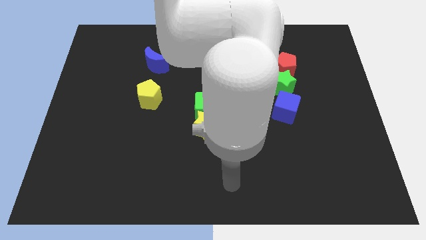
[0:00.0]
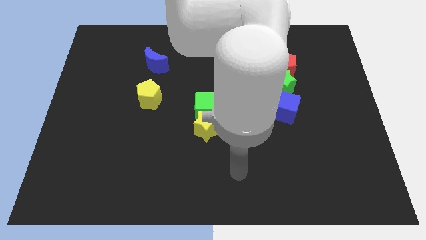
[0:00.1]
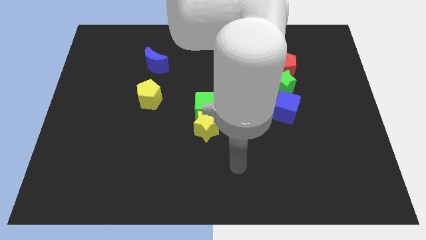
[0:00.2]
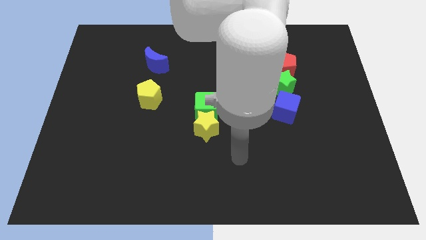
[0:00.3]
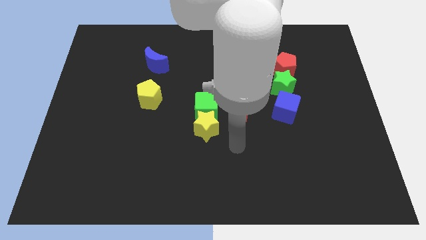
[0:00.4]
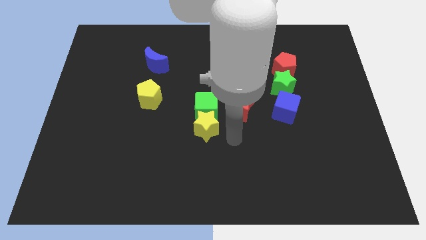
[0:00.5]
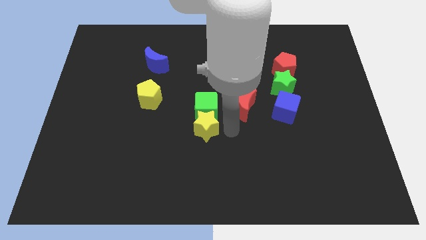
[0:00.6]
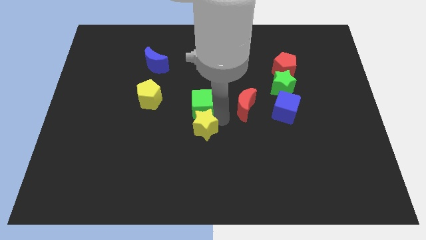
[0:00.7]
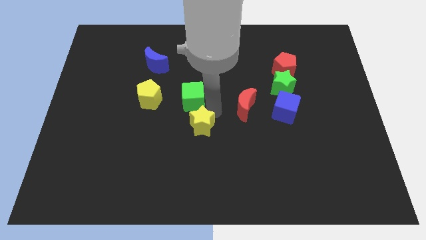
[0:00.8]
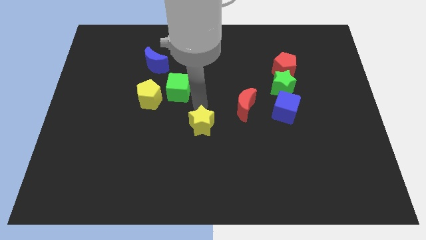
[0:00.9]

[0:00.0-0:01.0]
pull the yellow star apart from the green cube

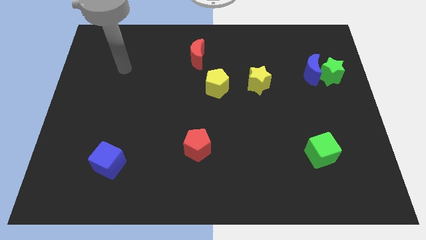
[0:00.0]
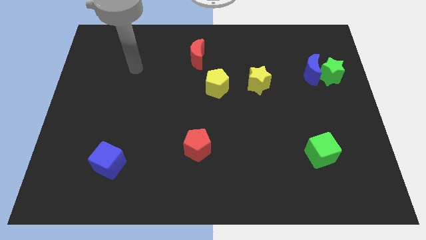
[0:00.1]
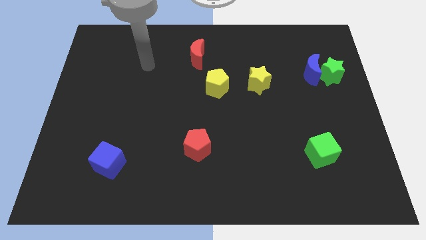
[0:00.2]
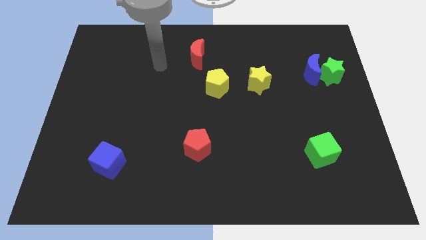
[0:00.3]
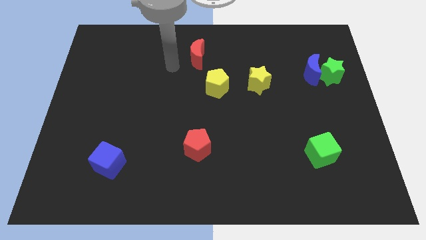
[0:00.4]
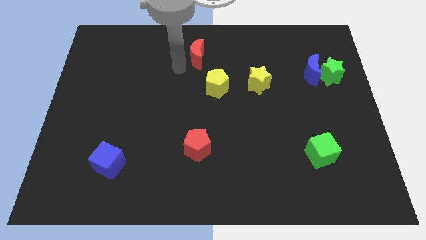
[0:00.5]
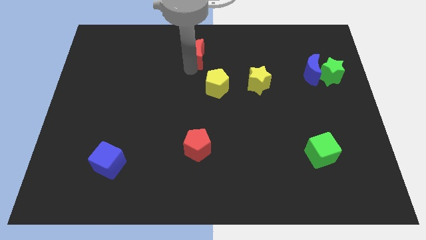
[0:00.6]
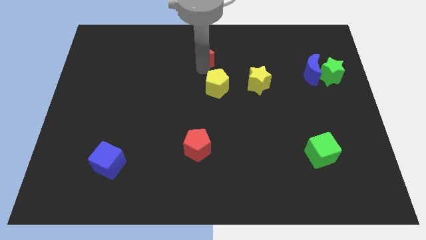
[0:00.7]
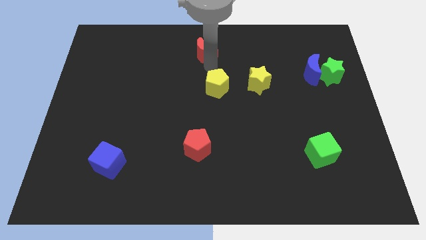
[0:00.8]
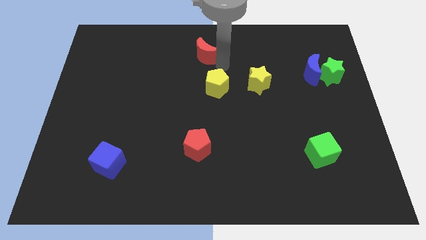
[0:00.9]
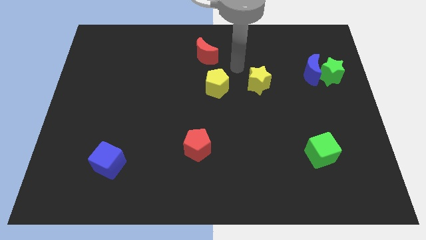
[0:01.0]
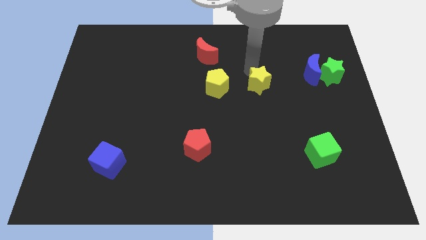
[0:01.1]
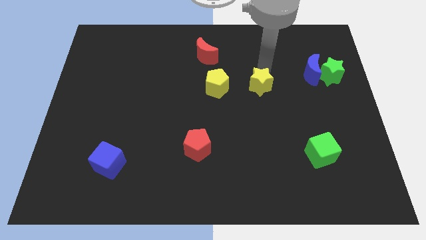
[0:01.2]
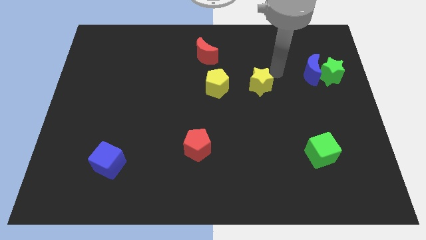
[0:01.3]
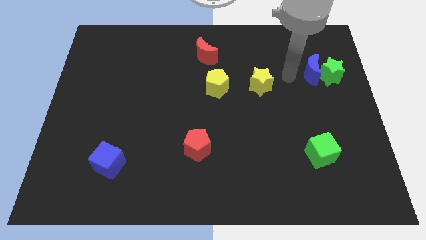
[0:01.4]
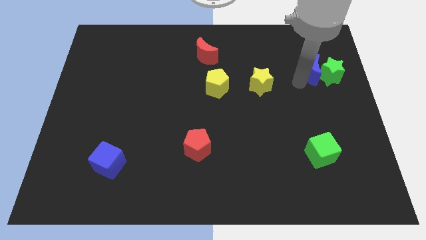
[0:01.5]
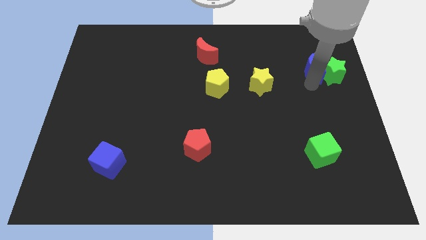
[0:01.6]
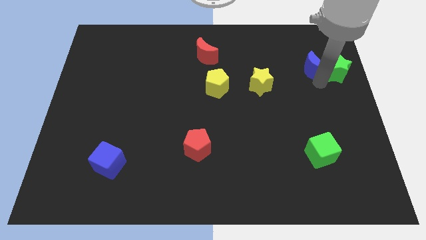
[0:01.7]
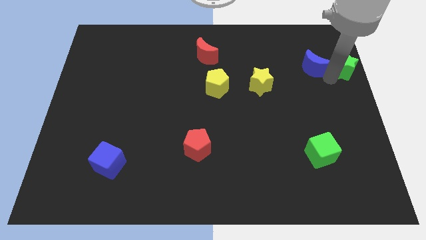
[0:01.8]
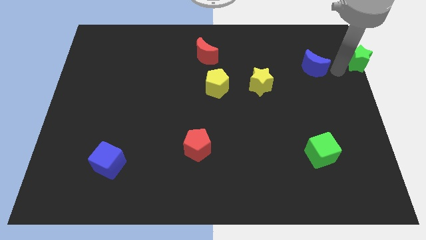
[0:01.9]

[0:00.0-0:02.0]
move the blue moon away from the green star

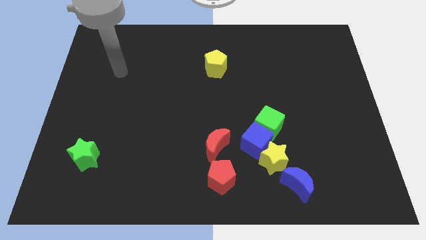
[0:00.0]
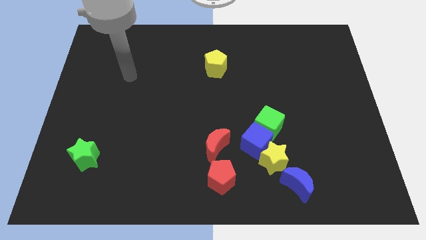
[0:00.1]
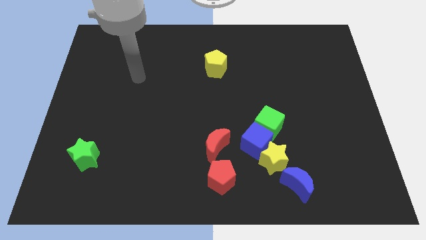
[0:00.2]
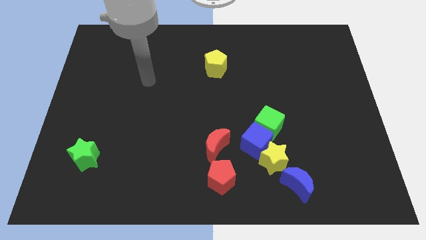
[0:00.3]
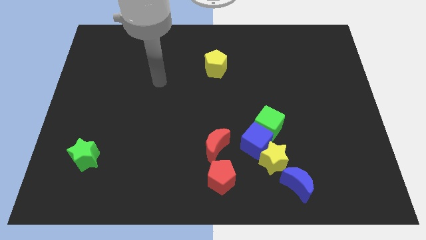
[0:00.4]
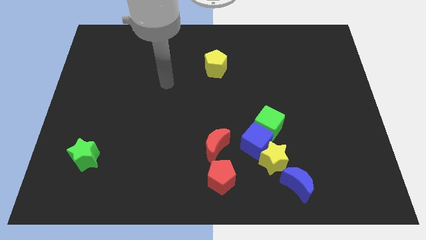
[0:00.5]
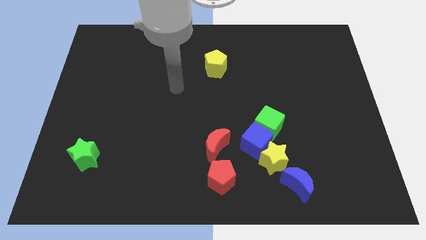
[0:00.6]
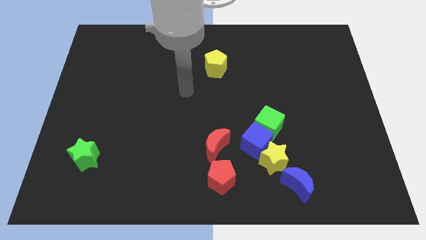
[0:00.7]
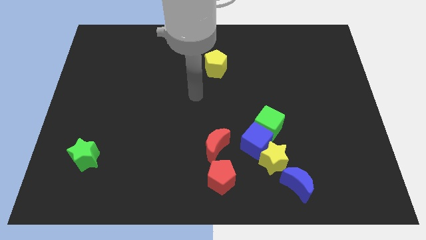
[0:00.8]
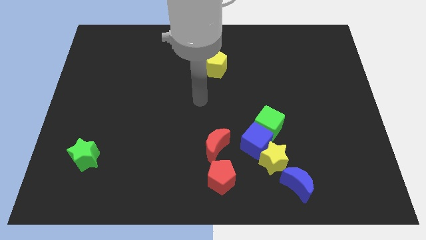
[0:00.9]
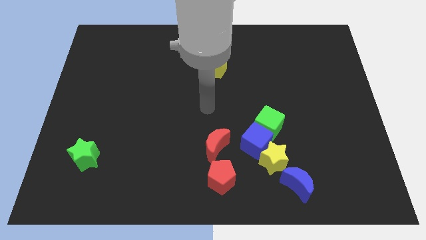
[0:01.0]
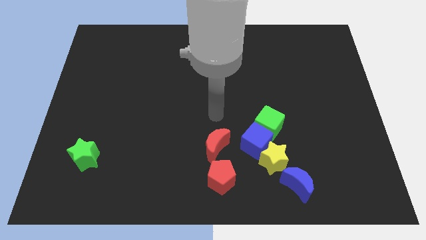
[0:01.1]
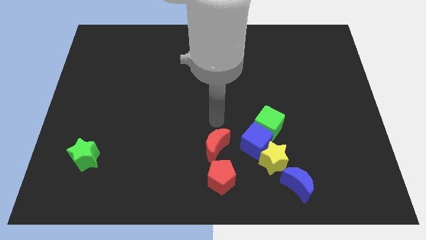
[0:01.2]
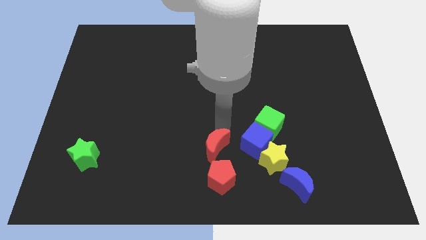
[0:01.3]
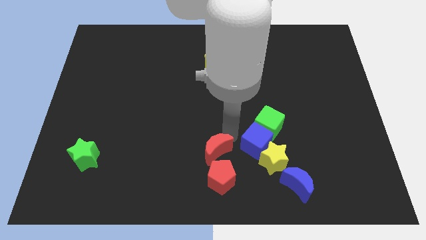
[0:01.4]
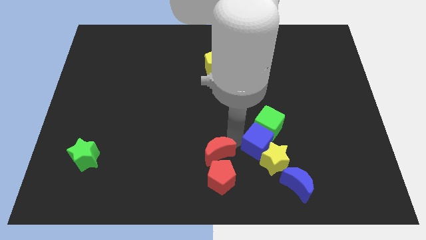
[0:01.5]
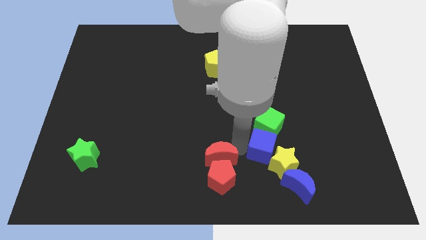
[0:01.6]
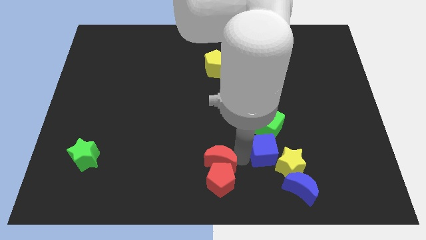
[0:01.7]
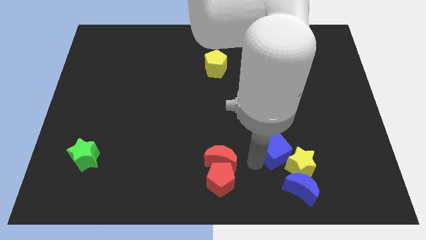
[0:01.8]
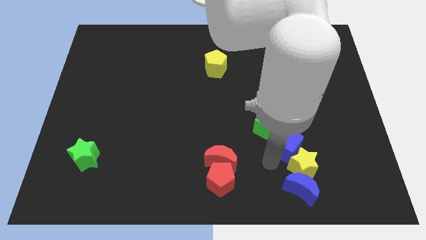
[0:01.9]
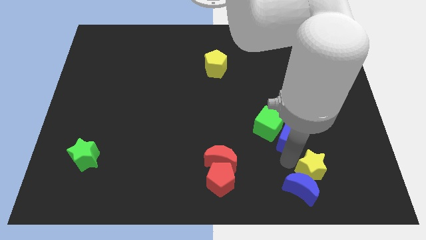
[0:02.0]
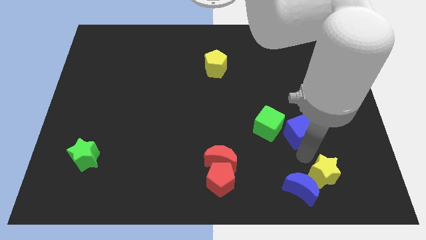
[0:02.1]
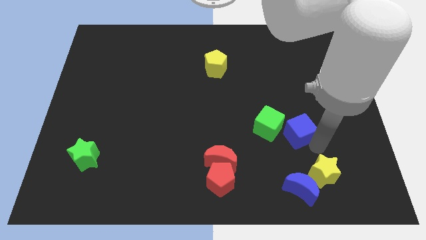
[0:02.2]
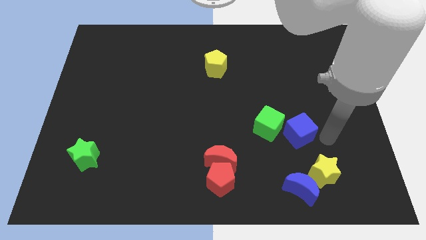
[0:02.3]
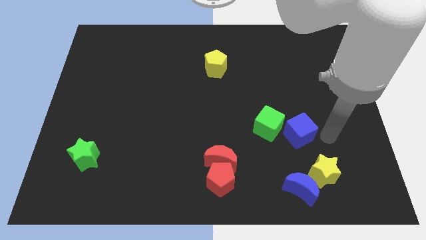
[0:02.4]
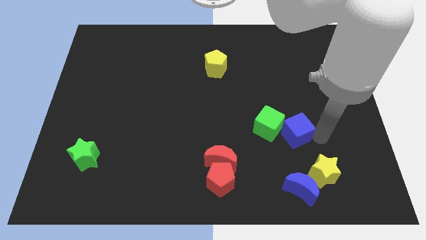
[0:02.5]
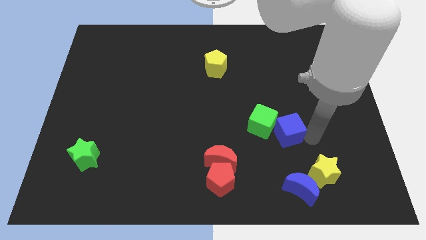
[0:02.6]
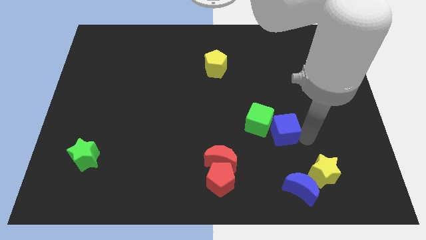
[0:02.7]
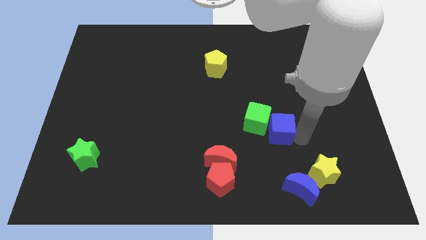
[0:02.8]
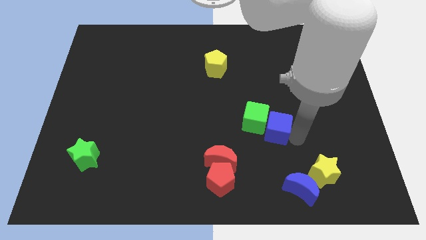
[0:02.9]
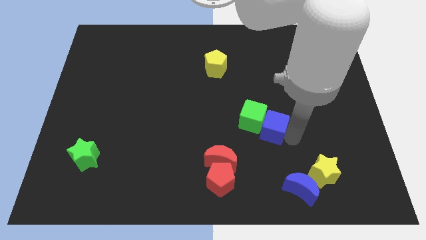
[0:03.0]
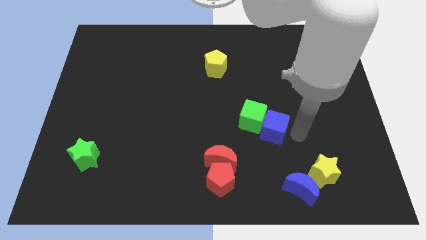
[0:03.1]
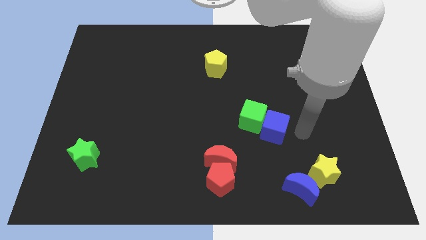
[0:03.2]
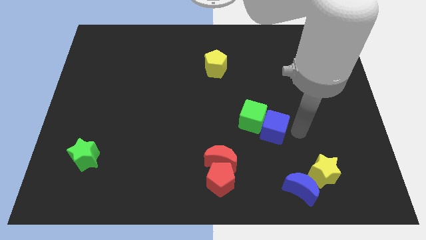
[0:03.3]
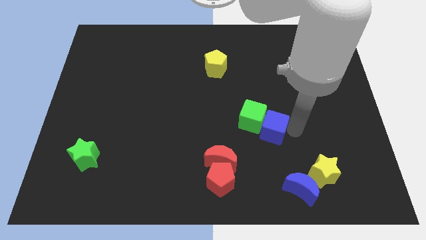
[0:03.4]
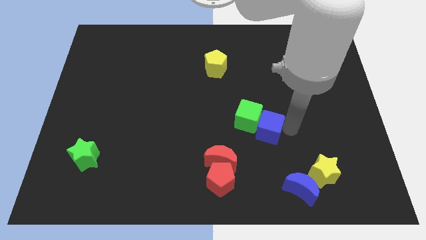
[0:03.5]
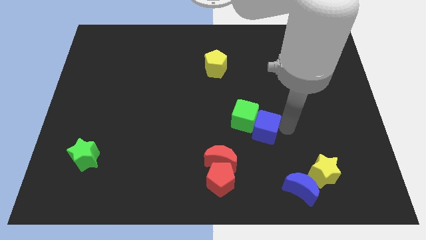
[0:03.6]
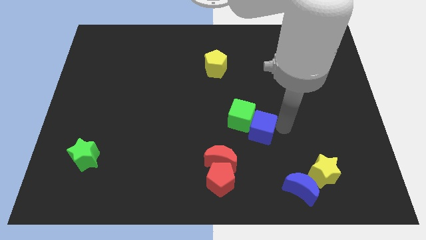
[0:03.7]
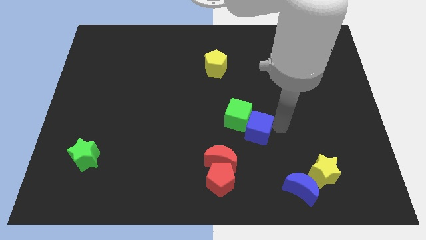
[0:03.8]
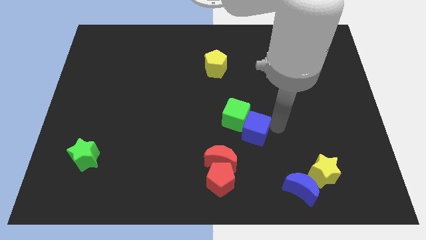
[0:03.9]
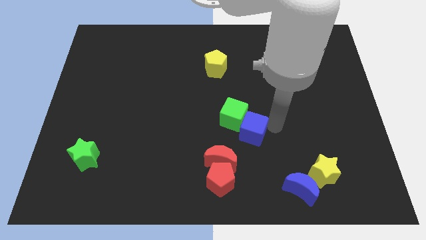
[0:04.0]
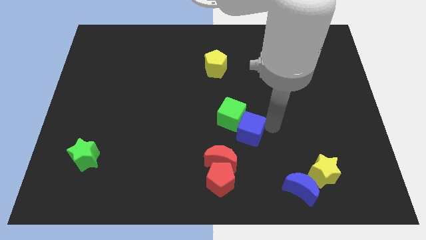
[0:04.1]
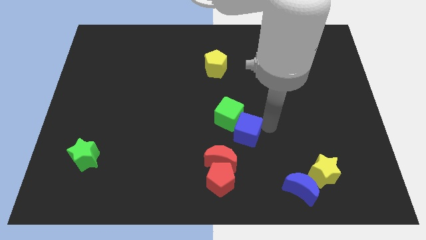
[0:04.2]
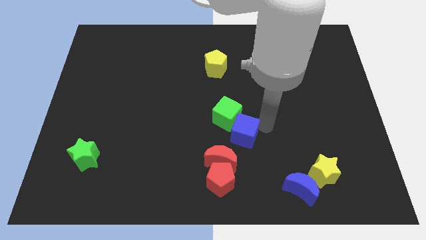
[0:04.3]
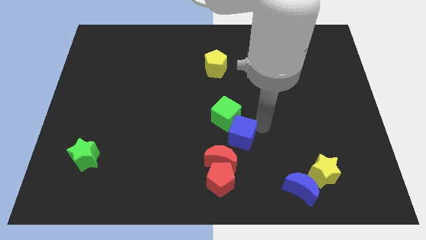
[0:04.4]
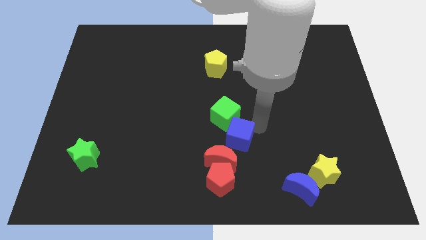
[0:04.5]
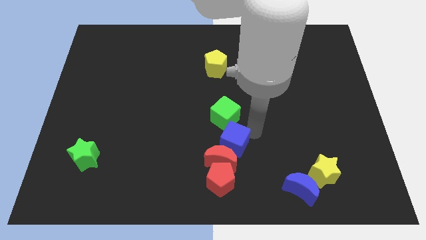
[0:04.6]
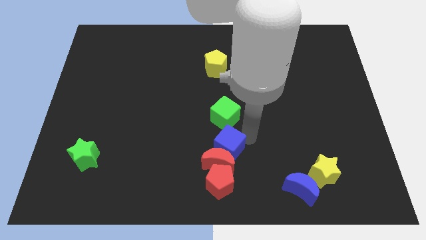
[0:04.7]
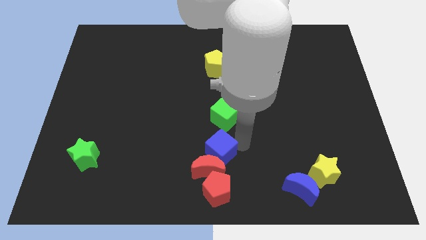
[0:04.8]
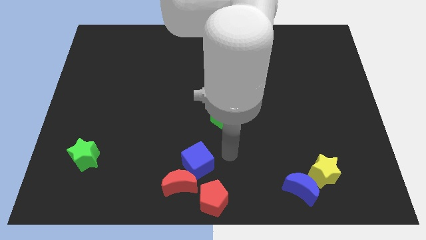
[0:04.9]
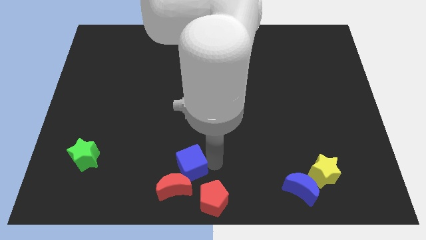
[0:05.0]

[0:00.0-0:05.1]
move the blue cube away from the yellow star, green cube, and red moon

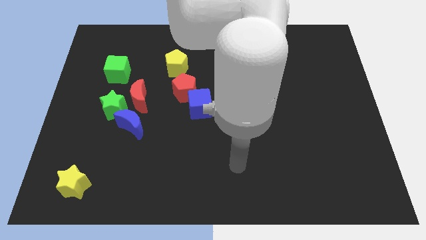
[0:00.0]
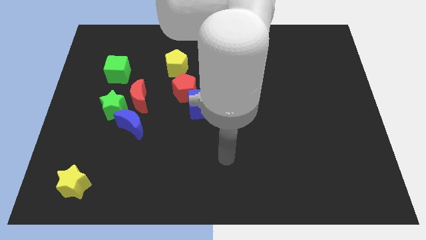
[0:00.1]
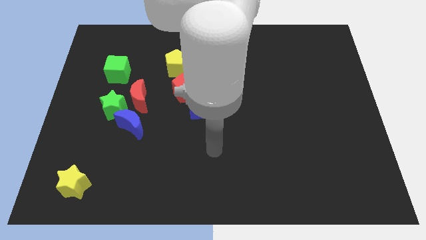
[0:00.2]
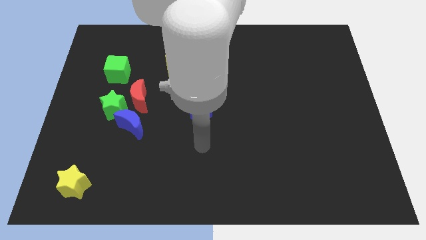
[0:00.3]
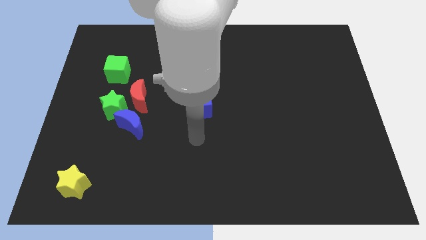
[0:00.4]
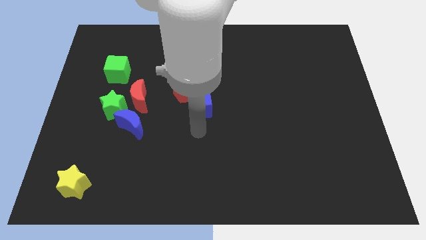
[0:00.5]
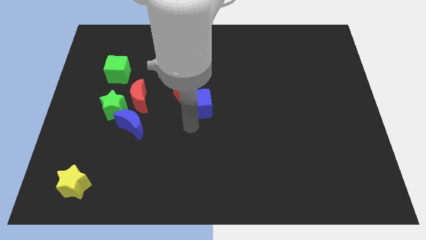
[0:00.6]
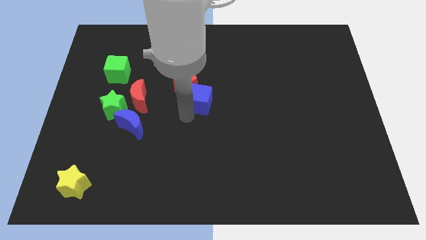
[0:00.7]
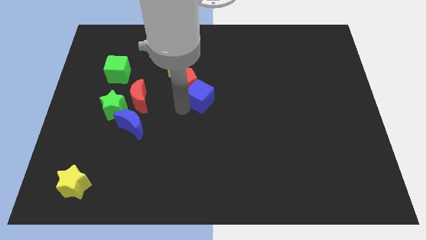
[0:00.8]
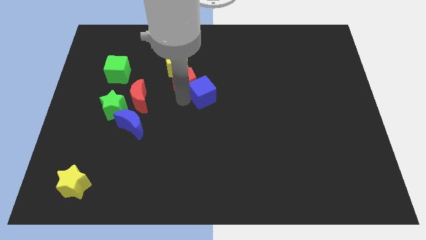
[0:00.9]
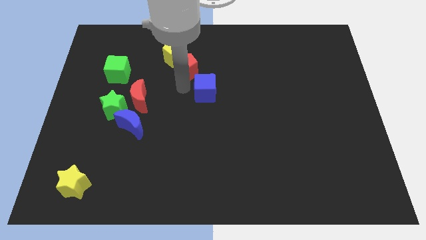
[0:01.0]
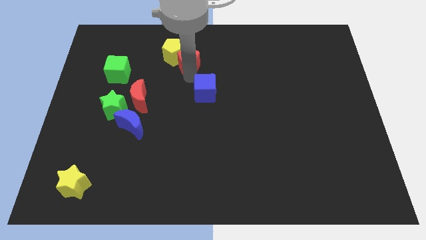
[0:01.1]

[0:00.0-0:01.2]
pull the blue cube apart from the red pentagon

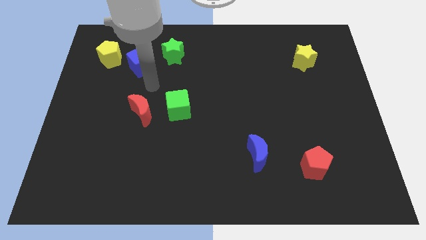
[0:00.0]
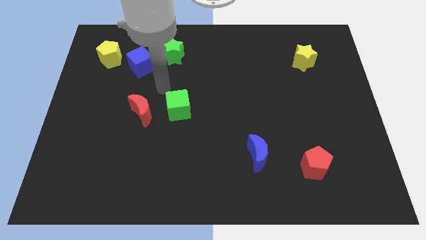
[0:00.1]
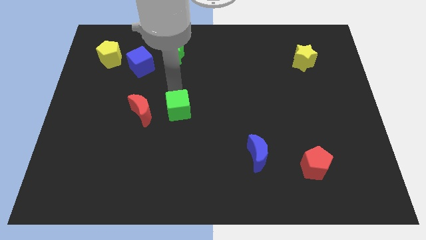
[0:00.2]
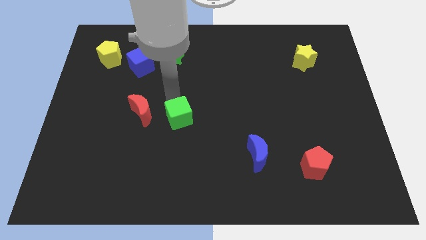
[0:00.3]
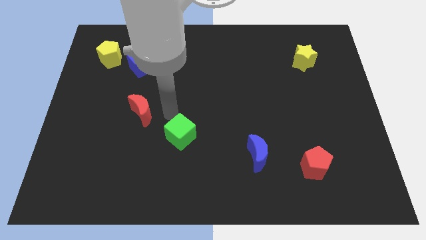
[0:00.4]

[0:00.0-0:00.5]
move the red moon away from the green cube
